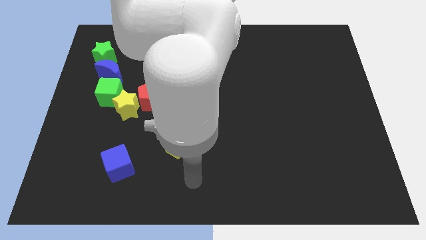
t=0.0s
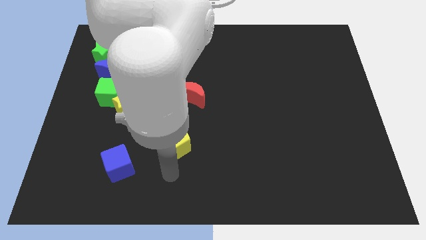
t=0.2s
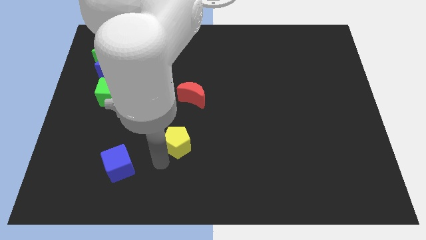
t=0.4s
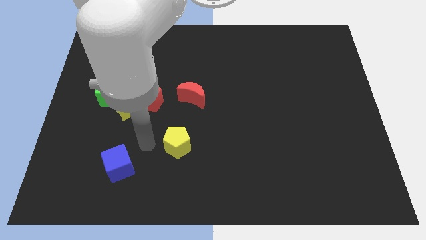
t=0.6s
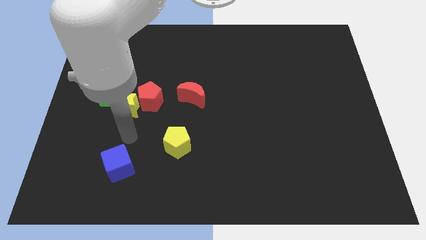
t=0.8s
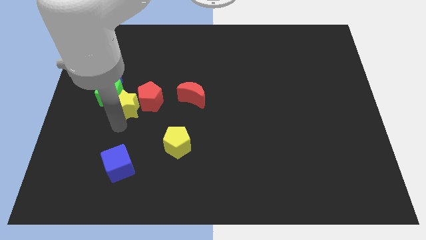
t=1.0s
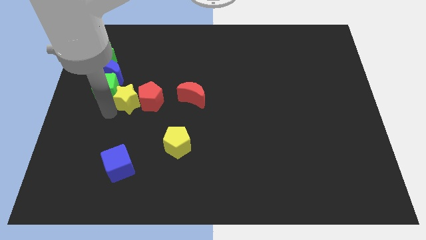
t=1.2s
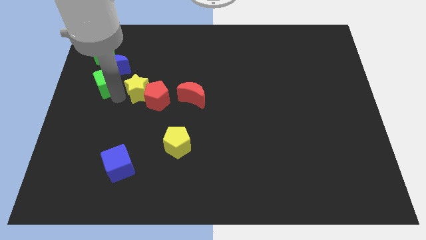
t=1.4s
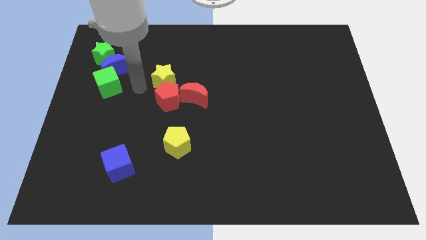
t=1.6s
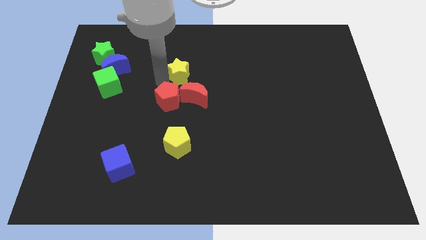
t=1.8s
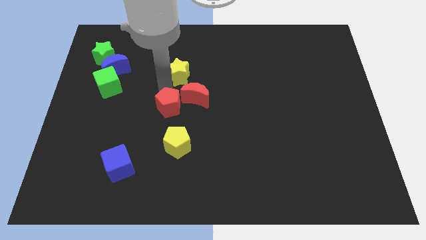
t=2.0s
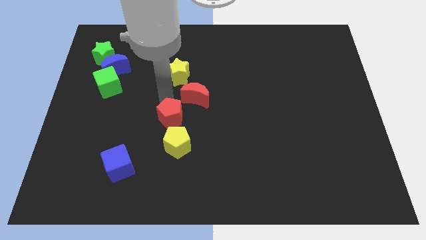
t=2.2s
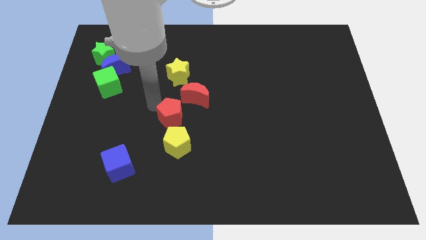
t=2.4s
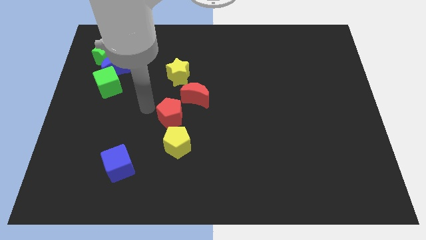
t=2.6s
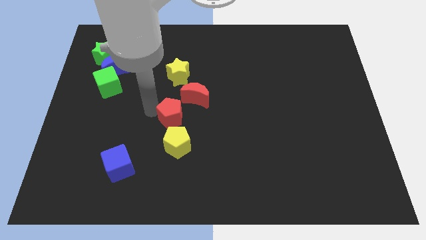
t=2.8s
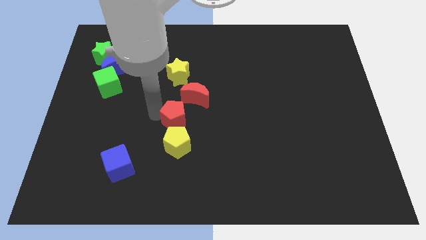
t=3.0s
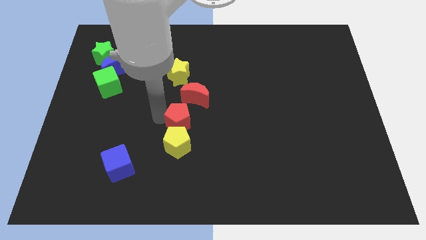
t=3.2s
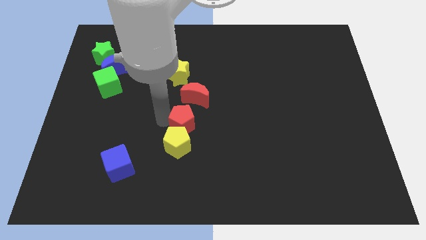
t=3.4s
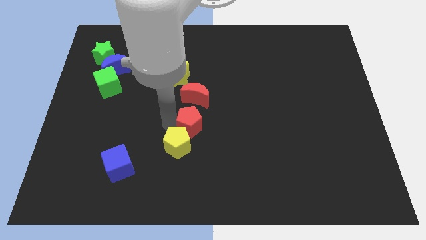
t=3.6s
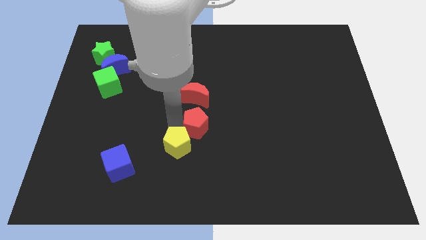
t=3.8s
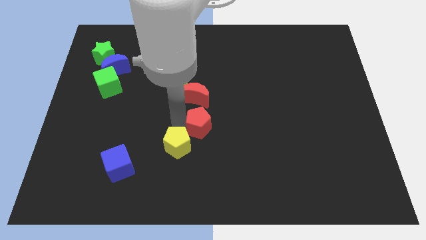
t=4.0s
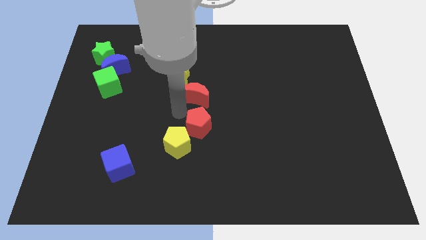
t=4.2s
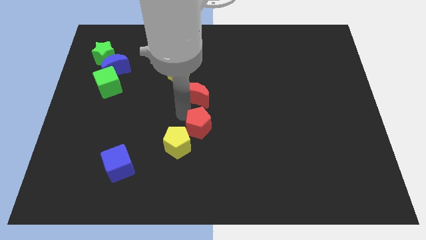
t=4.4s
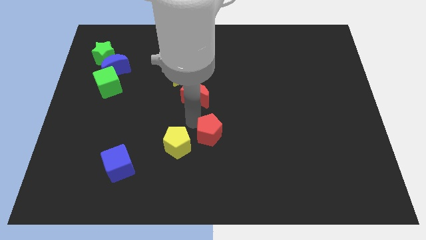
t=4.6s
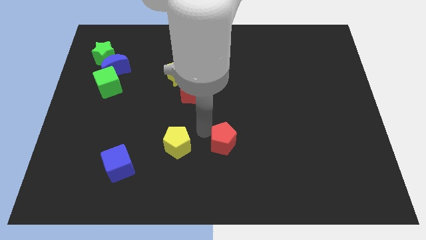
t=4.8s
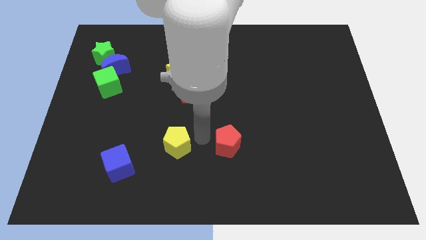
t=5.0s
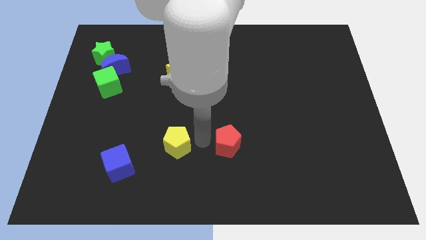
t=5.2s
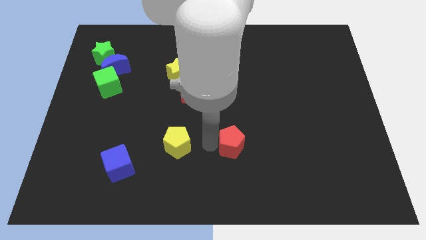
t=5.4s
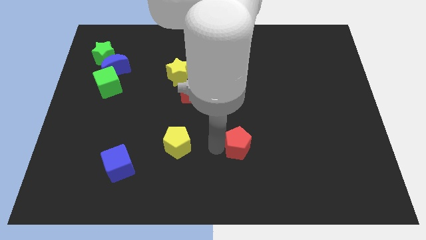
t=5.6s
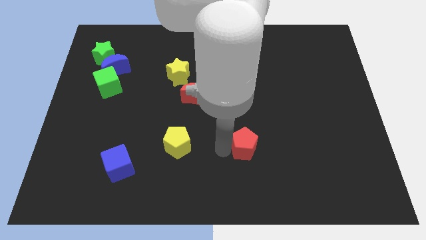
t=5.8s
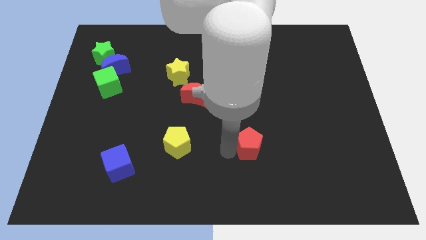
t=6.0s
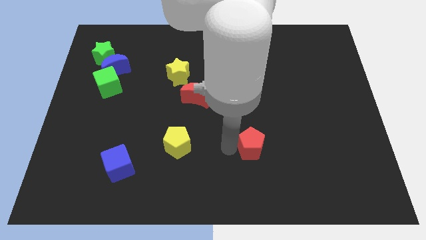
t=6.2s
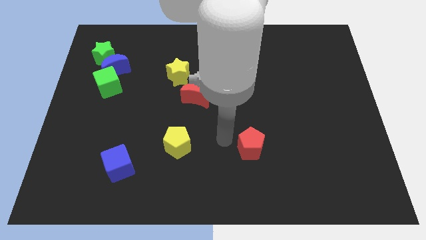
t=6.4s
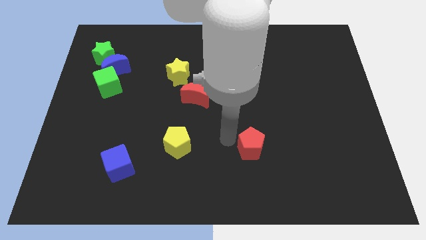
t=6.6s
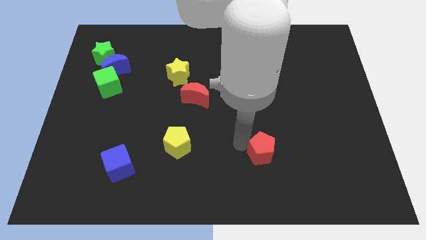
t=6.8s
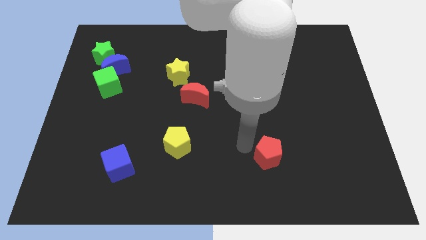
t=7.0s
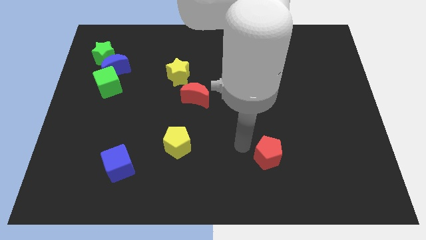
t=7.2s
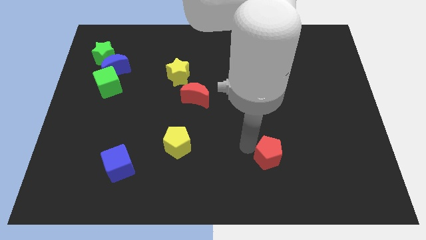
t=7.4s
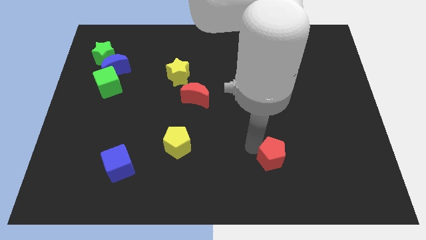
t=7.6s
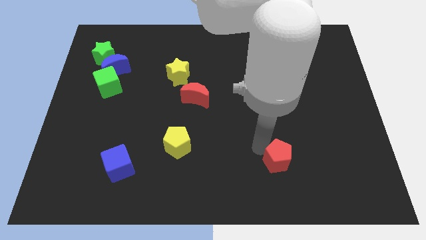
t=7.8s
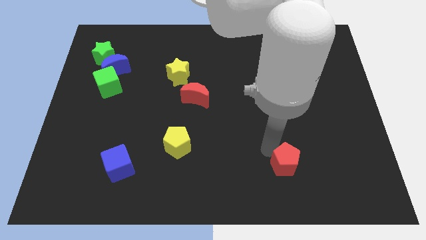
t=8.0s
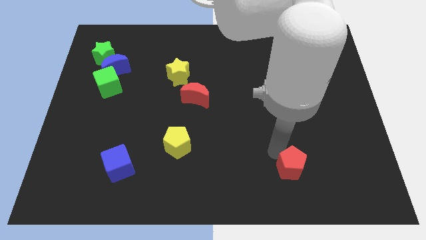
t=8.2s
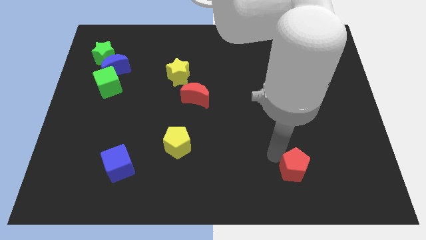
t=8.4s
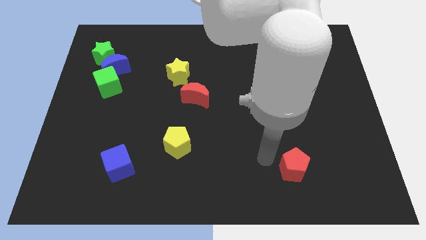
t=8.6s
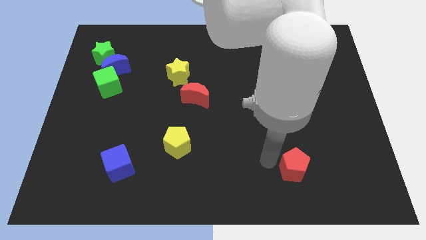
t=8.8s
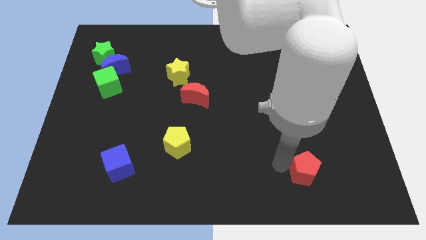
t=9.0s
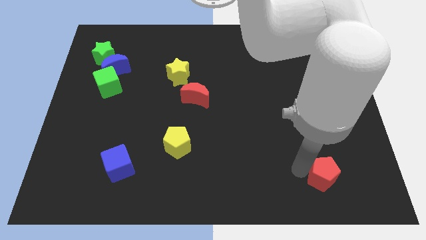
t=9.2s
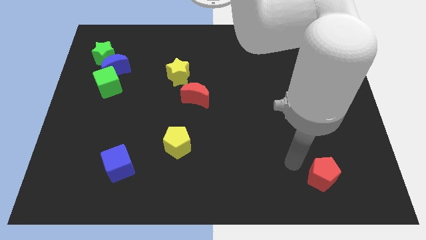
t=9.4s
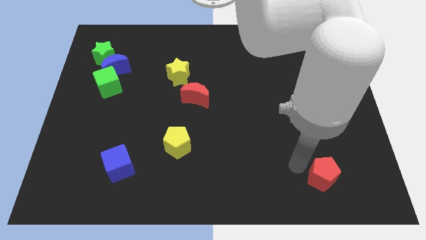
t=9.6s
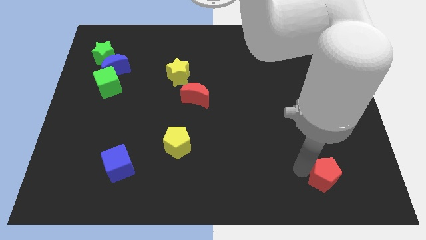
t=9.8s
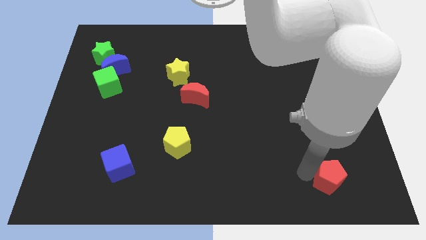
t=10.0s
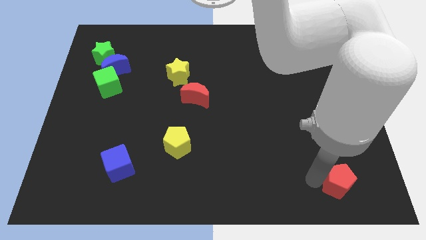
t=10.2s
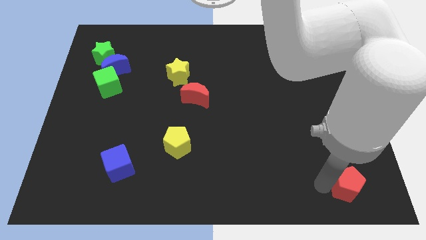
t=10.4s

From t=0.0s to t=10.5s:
slide the red pentagon to the bottom right
